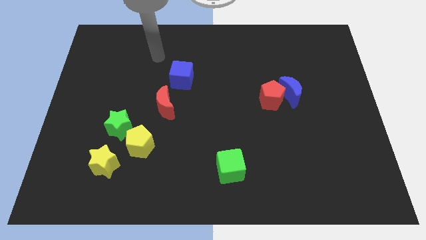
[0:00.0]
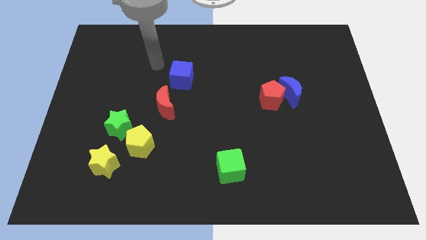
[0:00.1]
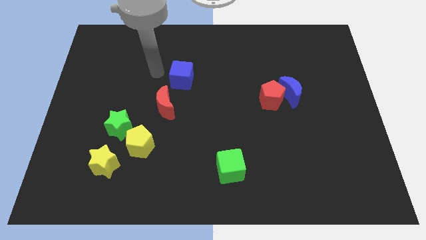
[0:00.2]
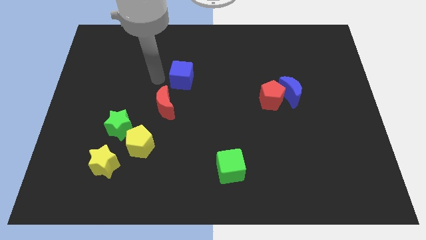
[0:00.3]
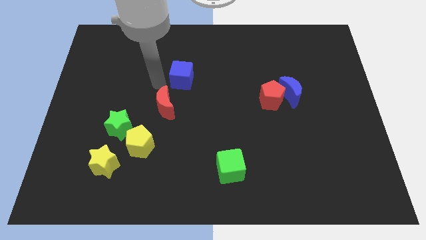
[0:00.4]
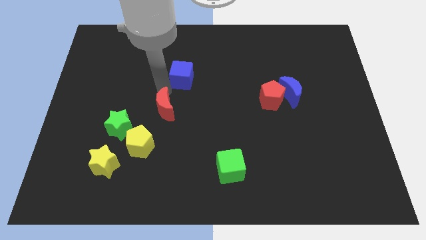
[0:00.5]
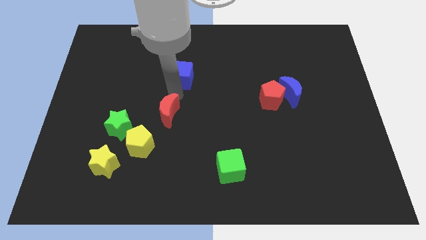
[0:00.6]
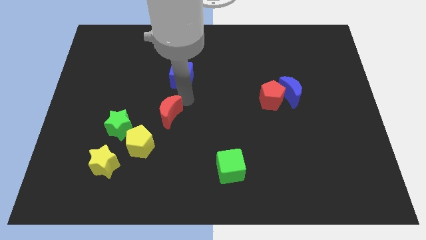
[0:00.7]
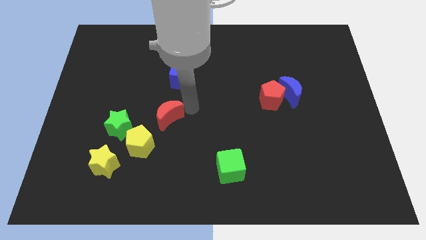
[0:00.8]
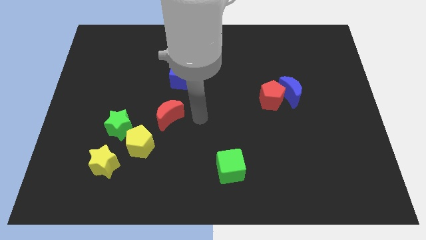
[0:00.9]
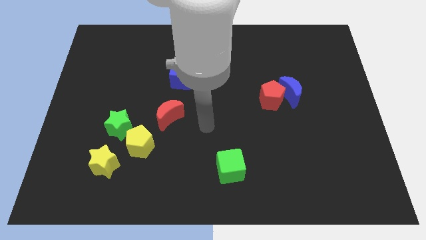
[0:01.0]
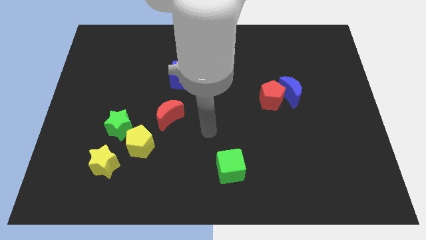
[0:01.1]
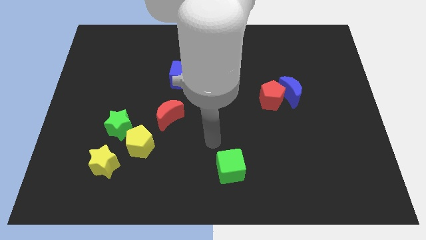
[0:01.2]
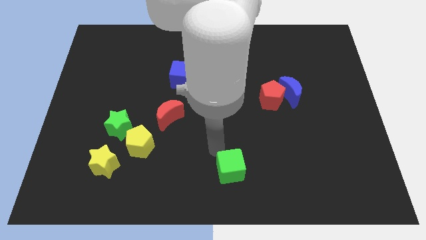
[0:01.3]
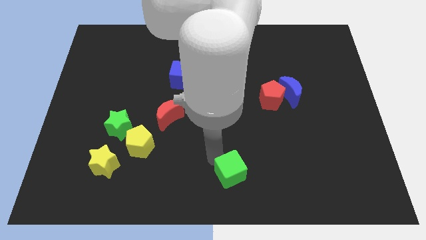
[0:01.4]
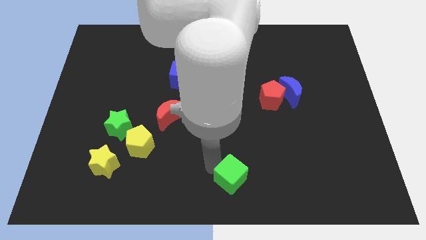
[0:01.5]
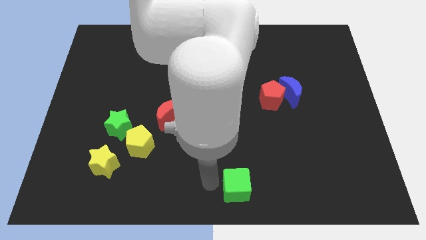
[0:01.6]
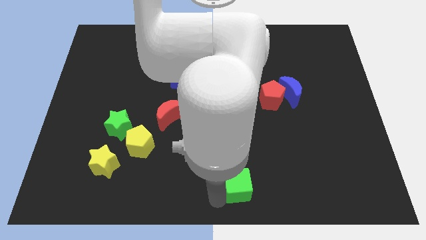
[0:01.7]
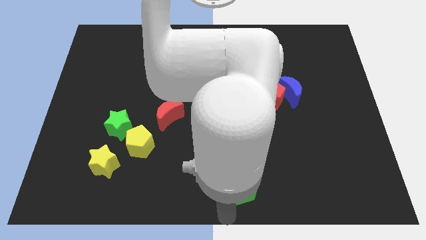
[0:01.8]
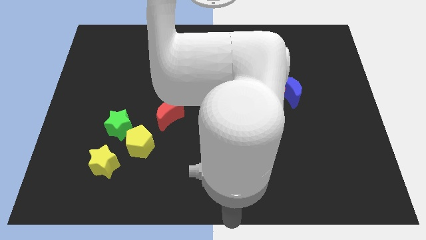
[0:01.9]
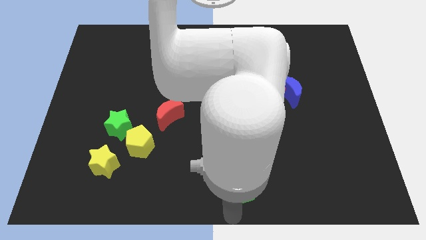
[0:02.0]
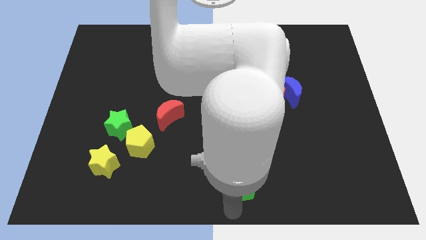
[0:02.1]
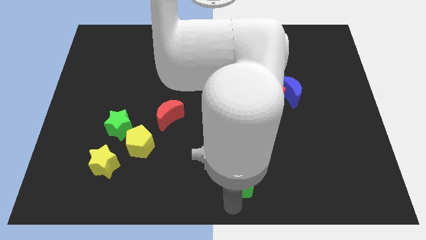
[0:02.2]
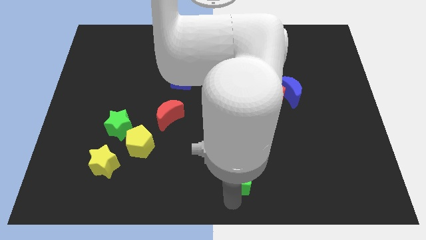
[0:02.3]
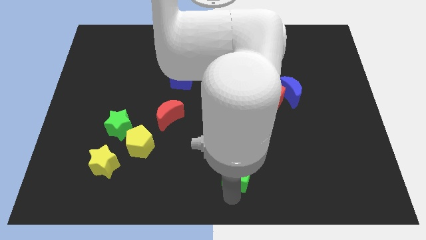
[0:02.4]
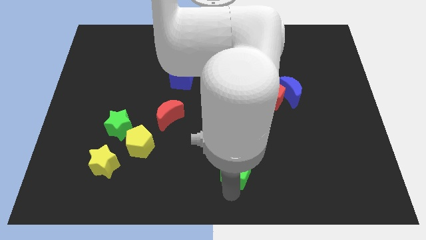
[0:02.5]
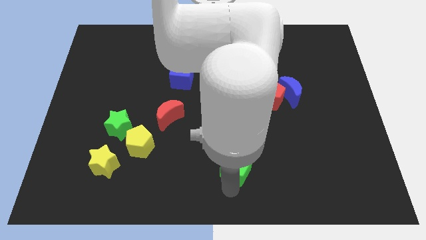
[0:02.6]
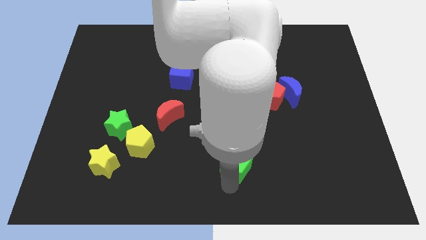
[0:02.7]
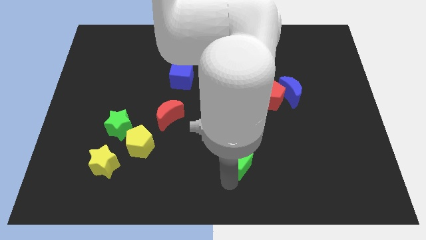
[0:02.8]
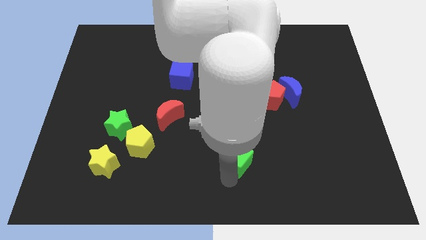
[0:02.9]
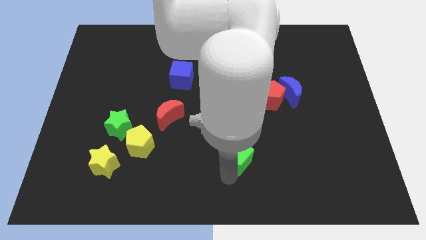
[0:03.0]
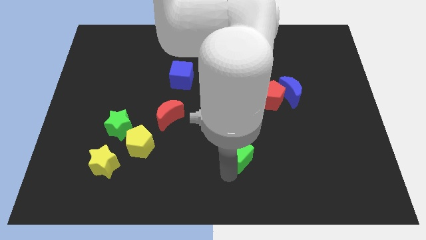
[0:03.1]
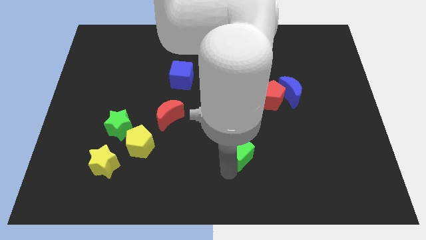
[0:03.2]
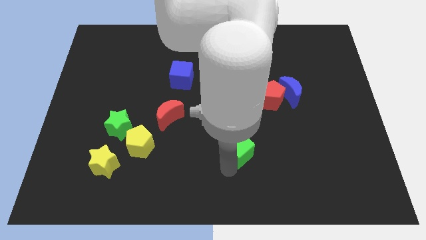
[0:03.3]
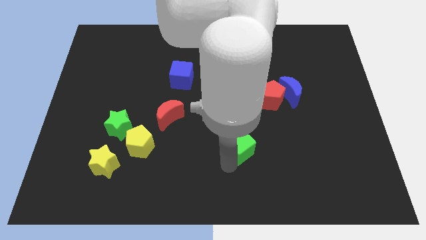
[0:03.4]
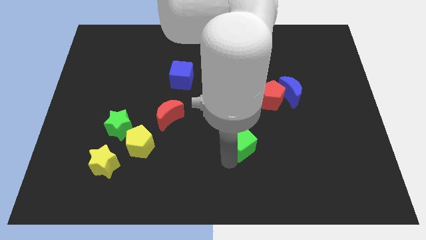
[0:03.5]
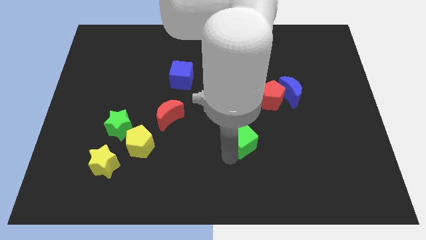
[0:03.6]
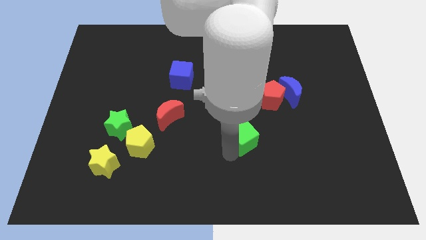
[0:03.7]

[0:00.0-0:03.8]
push the green cube a little up and to the right diagonally

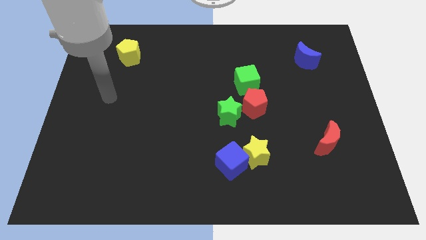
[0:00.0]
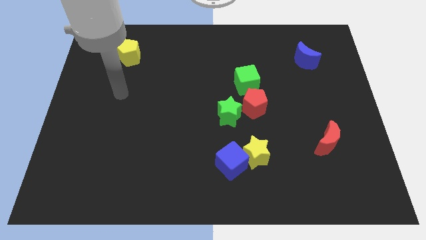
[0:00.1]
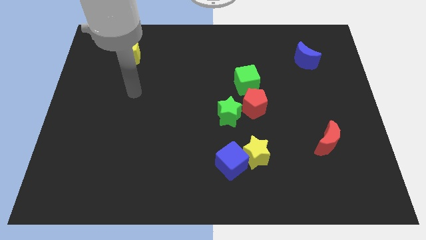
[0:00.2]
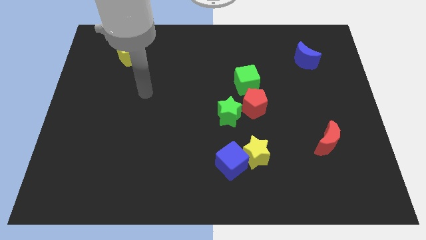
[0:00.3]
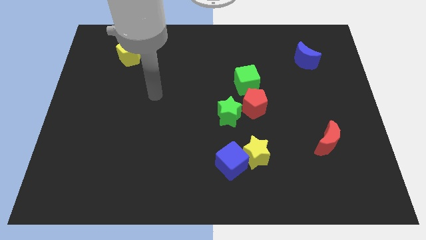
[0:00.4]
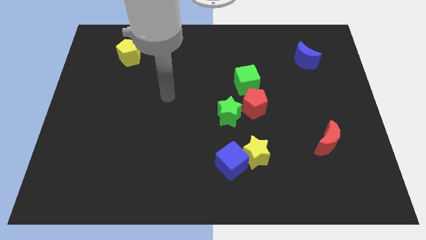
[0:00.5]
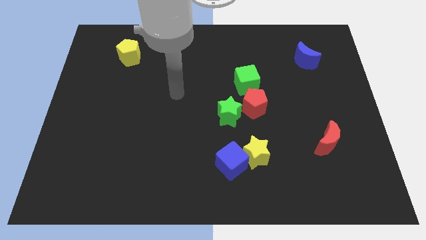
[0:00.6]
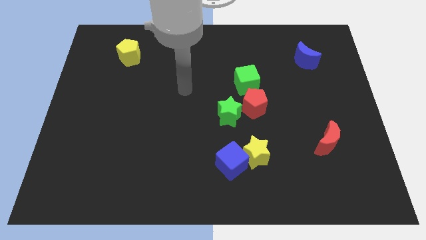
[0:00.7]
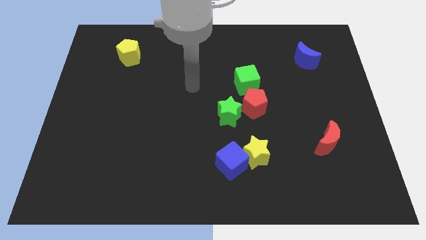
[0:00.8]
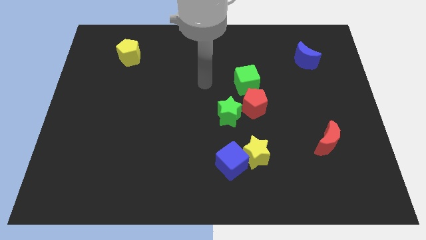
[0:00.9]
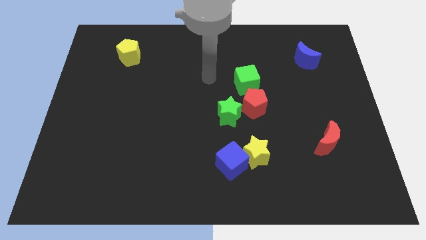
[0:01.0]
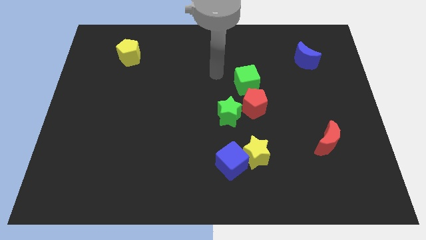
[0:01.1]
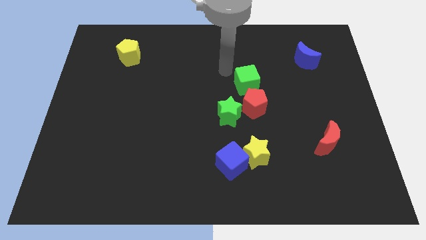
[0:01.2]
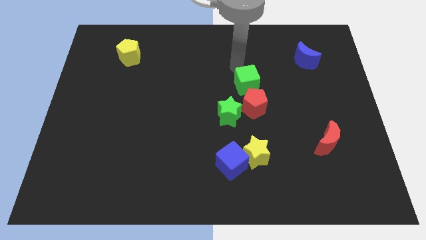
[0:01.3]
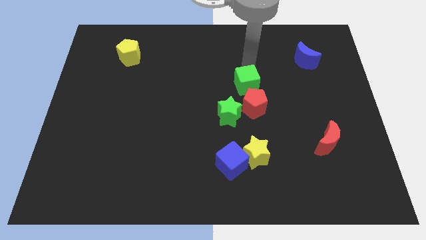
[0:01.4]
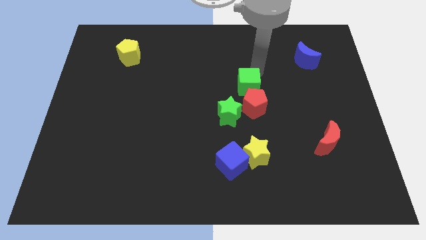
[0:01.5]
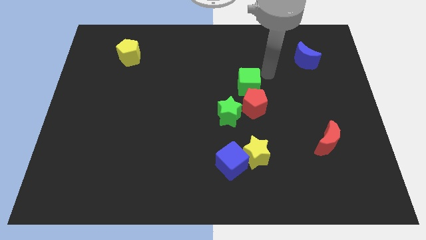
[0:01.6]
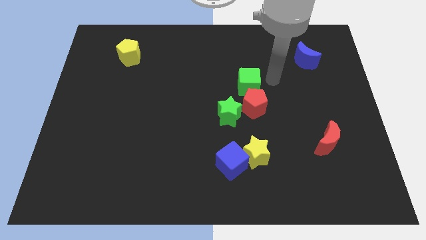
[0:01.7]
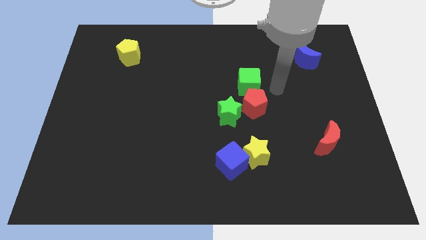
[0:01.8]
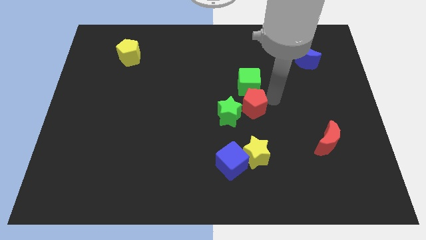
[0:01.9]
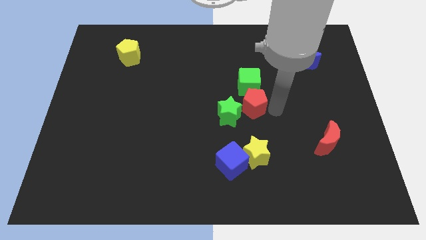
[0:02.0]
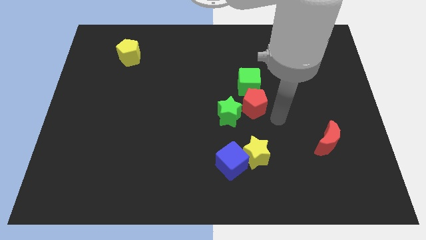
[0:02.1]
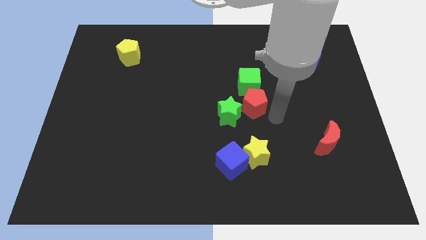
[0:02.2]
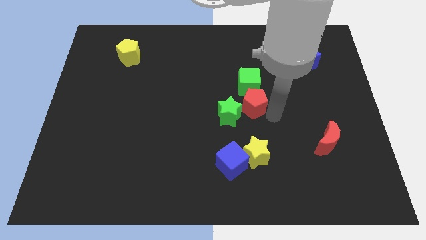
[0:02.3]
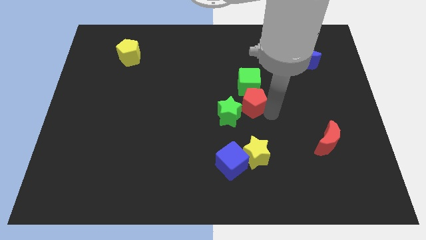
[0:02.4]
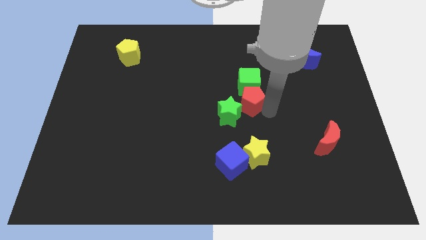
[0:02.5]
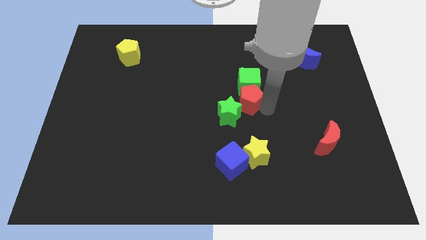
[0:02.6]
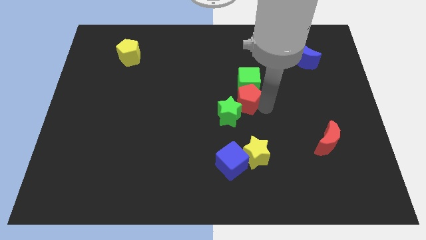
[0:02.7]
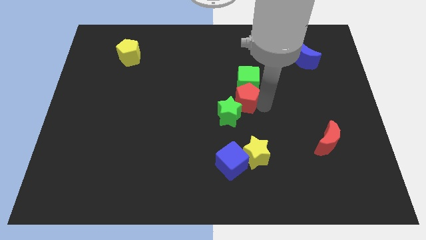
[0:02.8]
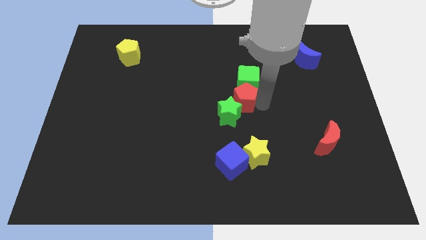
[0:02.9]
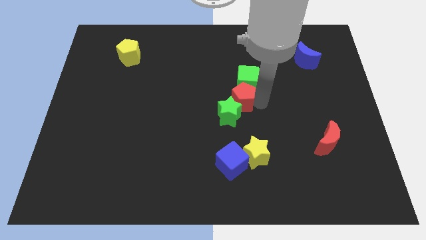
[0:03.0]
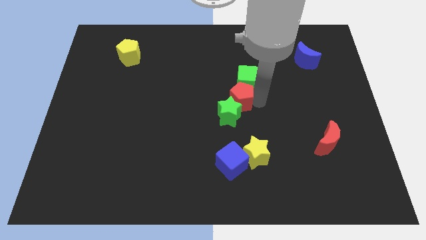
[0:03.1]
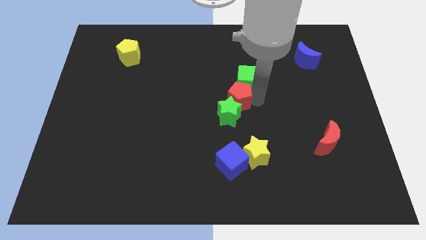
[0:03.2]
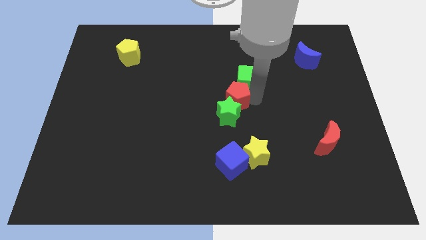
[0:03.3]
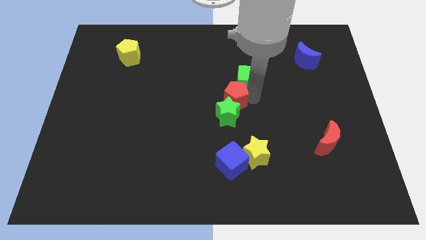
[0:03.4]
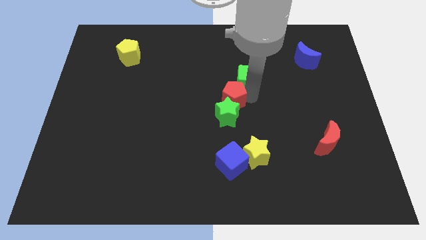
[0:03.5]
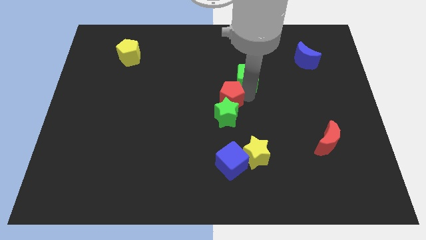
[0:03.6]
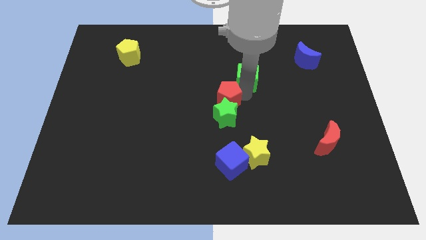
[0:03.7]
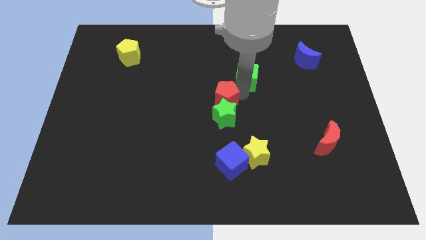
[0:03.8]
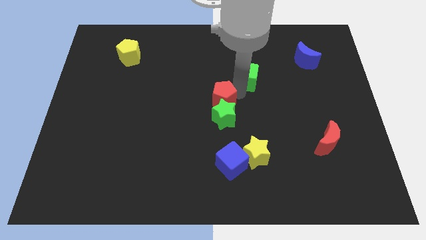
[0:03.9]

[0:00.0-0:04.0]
slide the red pentagon a bit left

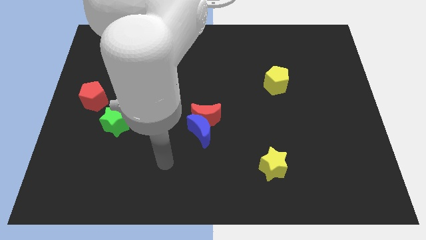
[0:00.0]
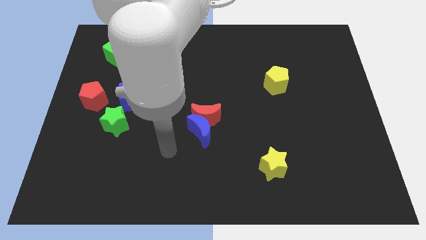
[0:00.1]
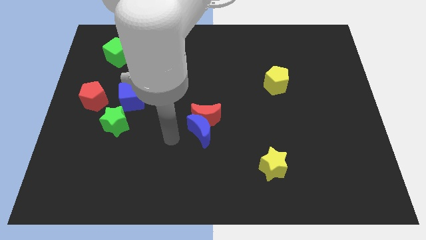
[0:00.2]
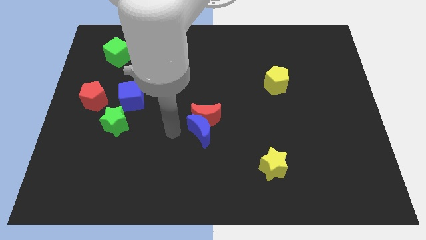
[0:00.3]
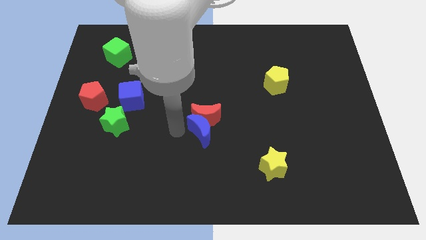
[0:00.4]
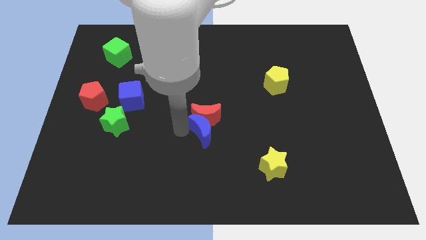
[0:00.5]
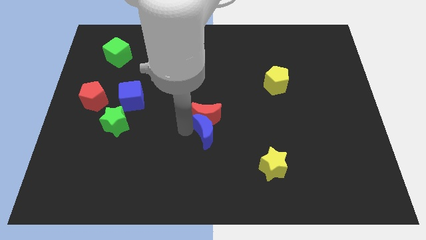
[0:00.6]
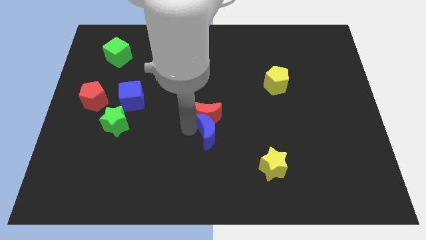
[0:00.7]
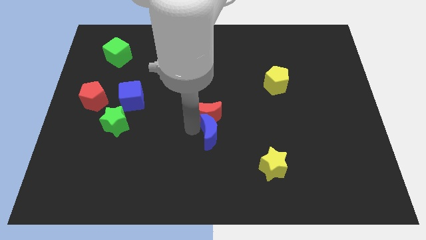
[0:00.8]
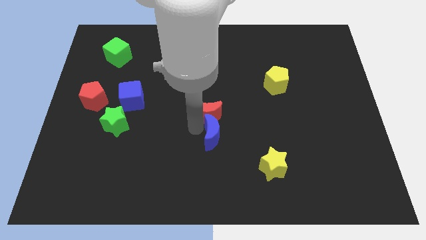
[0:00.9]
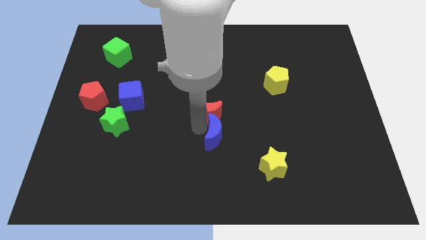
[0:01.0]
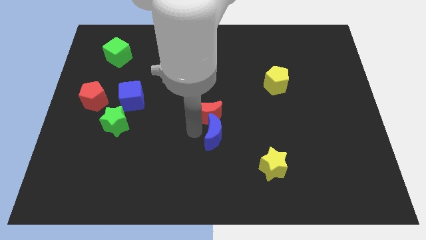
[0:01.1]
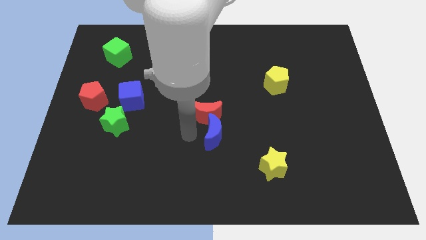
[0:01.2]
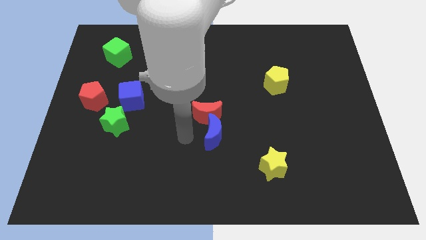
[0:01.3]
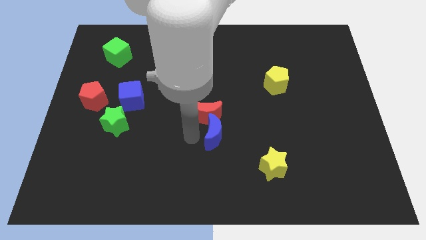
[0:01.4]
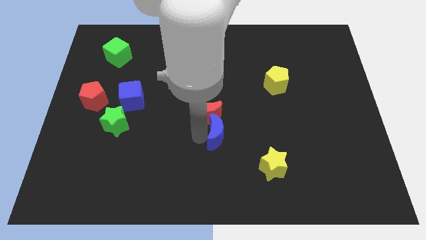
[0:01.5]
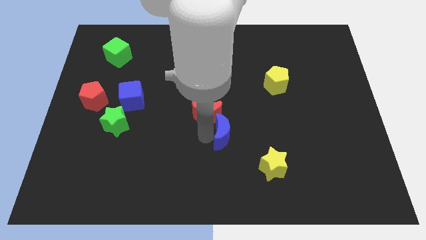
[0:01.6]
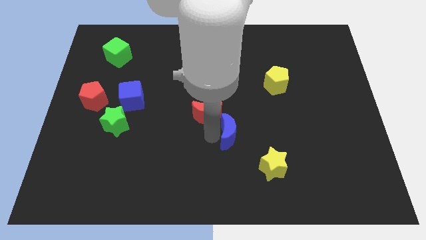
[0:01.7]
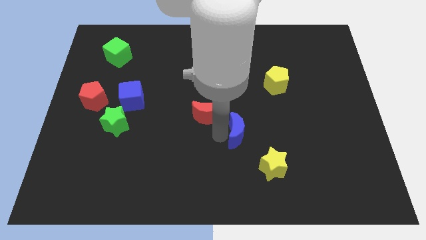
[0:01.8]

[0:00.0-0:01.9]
slightly push the blue moon to the right
